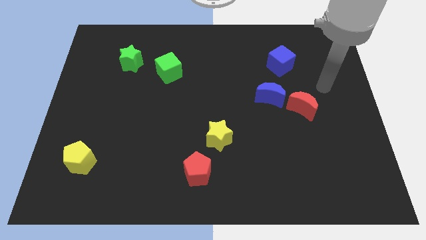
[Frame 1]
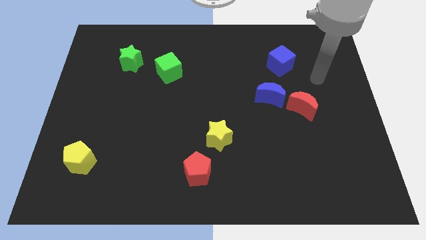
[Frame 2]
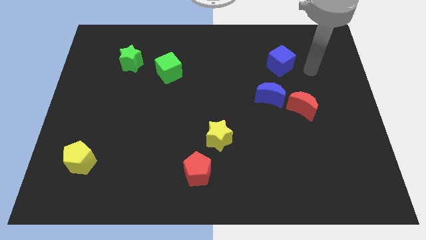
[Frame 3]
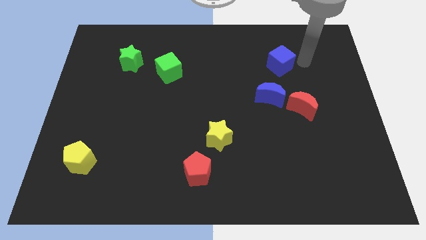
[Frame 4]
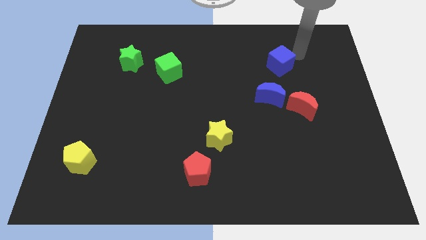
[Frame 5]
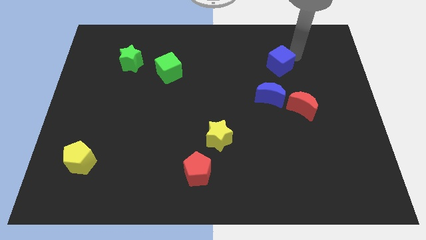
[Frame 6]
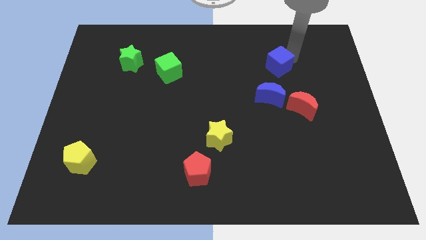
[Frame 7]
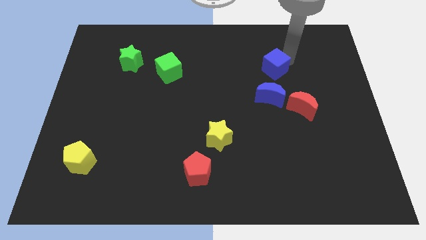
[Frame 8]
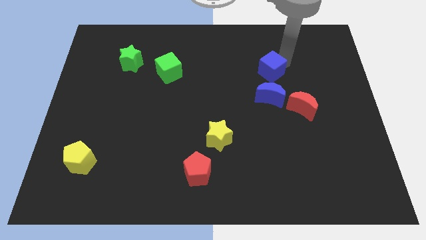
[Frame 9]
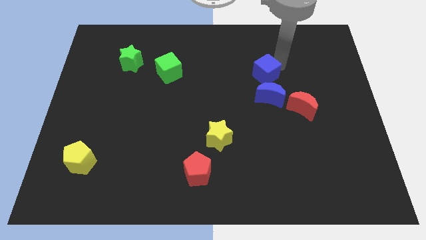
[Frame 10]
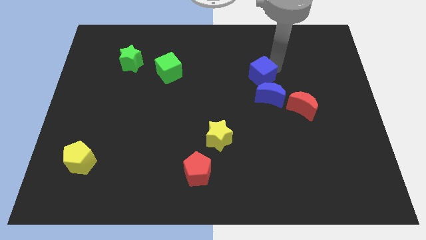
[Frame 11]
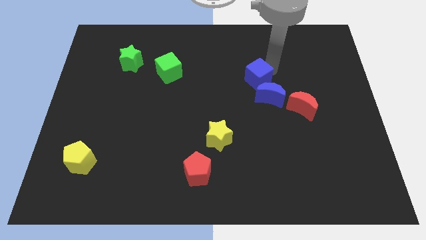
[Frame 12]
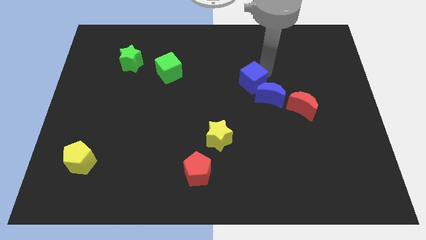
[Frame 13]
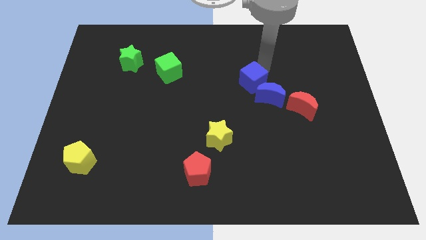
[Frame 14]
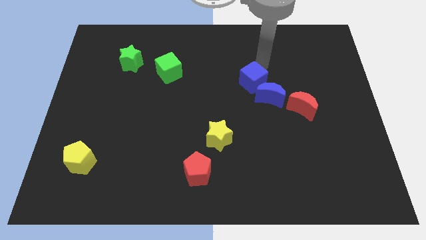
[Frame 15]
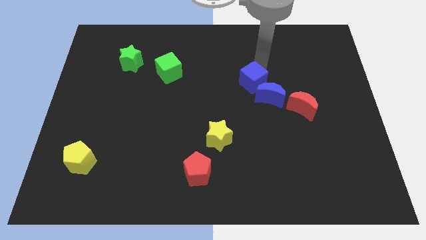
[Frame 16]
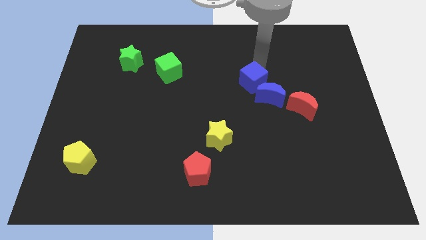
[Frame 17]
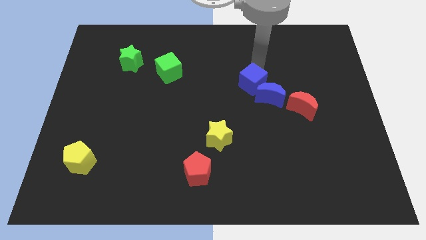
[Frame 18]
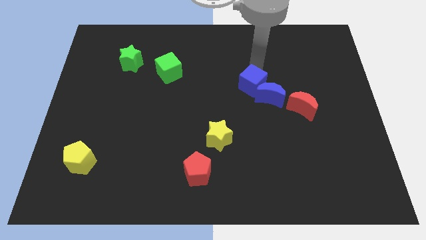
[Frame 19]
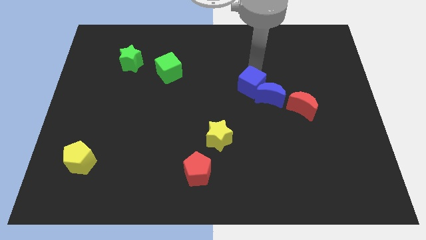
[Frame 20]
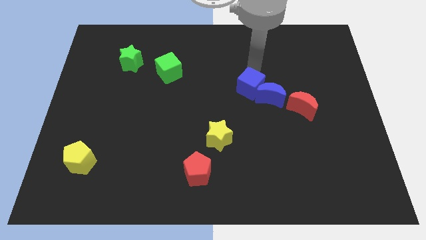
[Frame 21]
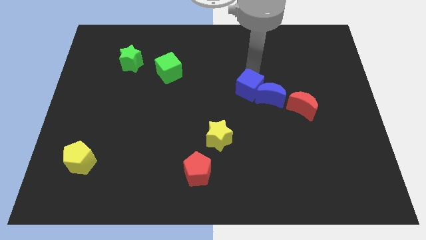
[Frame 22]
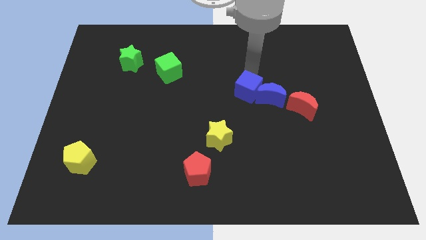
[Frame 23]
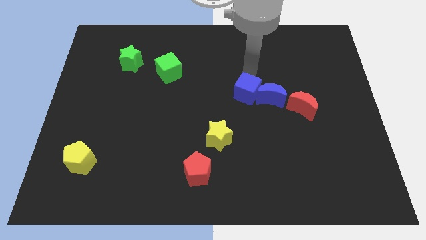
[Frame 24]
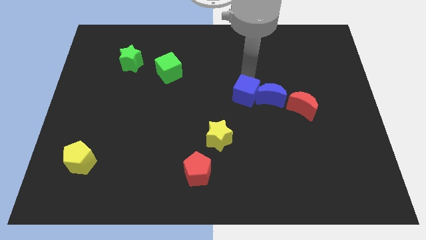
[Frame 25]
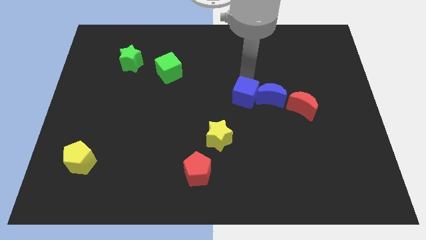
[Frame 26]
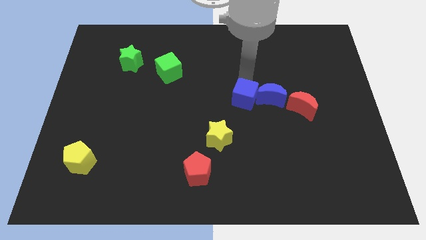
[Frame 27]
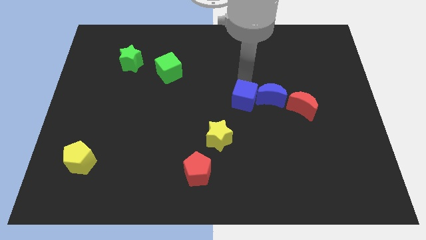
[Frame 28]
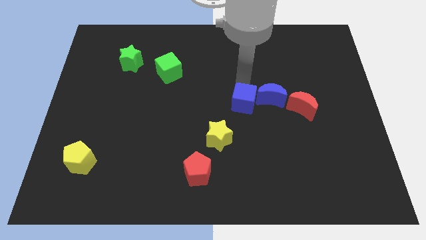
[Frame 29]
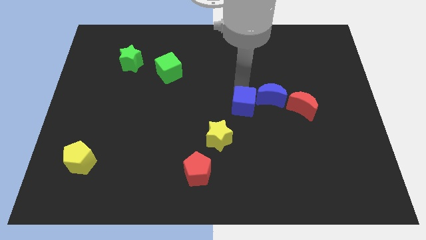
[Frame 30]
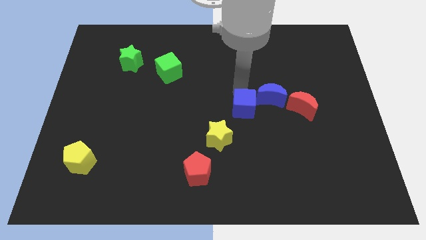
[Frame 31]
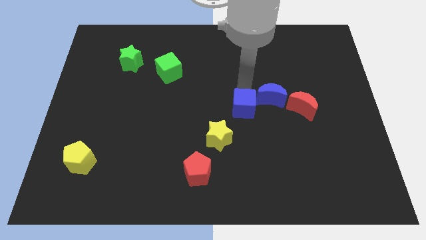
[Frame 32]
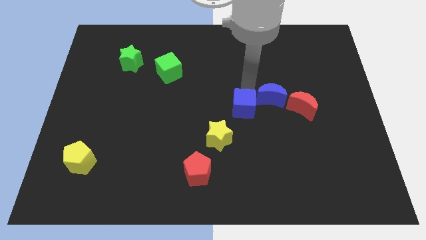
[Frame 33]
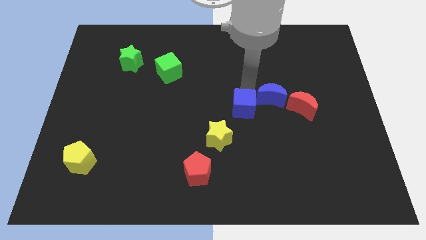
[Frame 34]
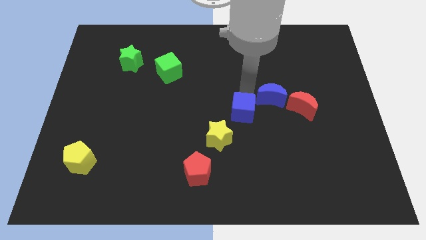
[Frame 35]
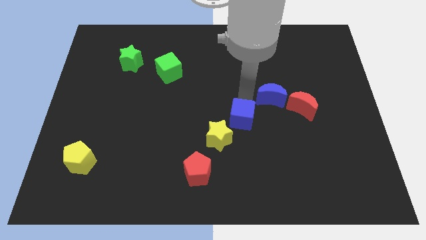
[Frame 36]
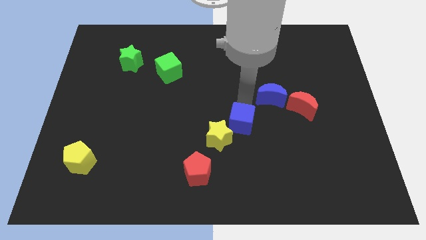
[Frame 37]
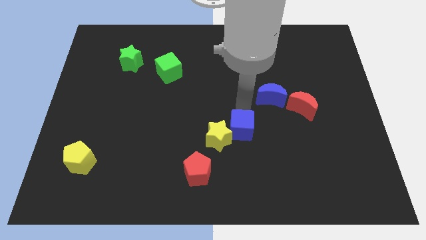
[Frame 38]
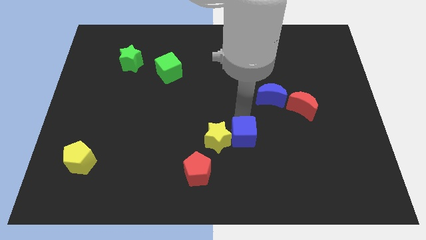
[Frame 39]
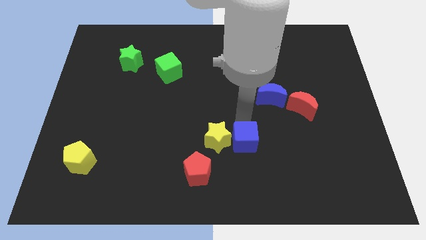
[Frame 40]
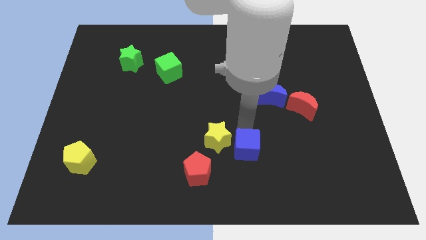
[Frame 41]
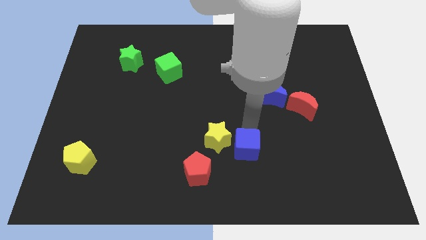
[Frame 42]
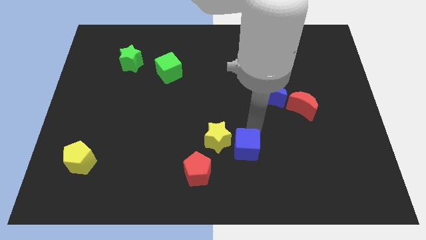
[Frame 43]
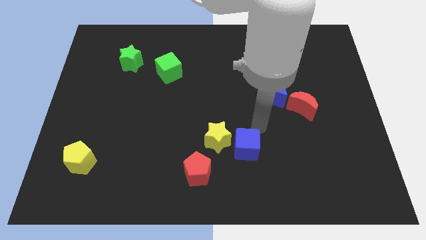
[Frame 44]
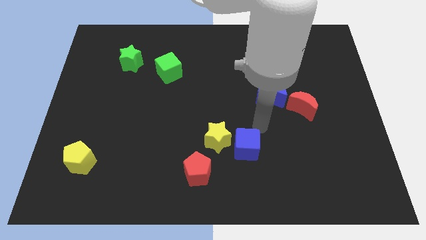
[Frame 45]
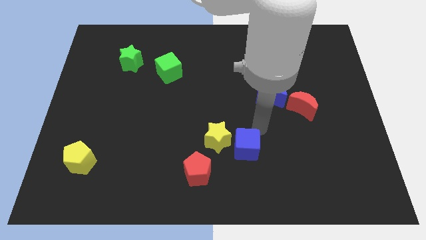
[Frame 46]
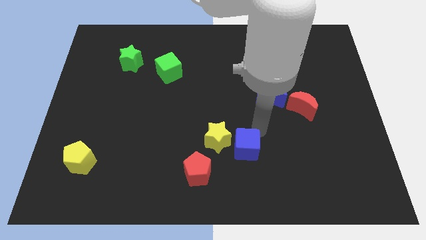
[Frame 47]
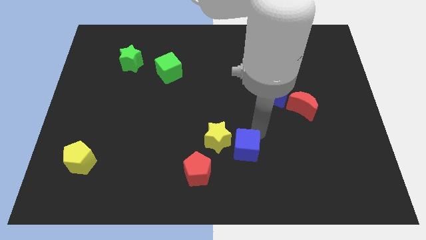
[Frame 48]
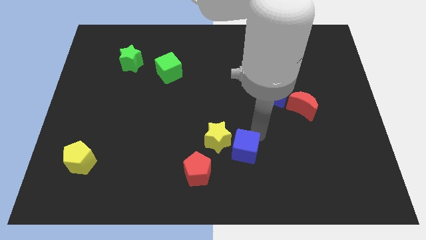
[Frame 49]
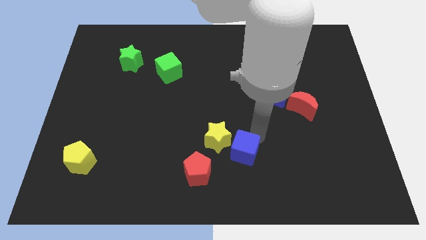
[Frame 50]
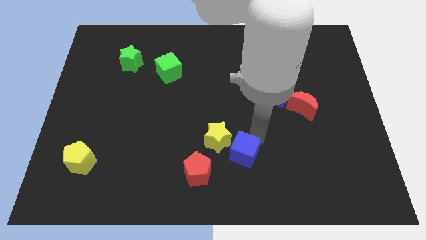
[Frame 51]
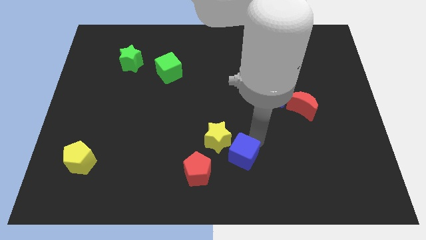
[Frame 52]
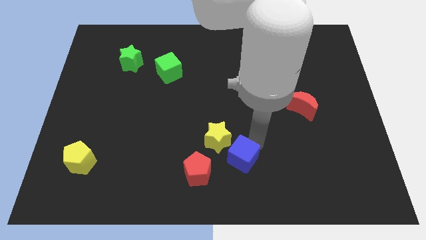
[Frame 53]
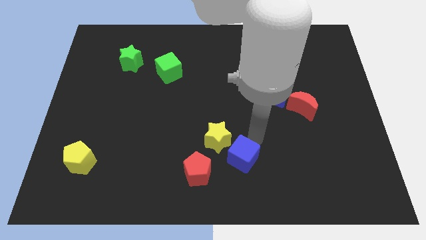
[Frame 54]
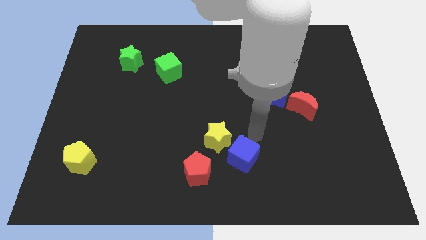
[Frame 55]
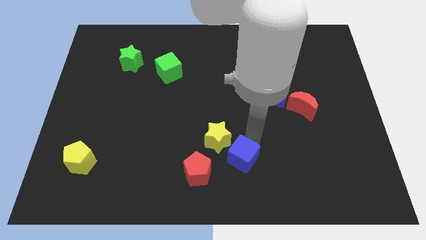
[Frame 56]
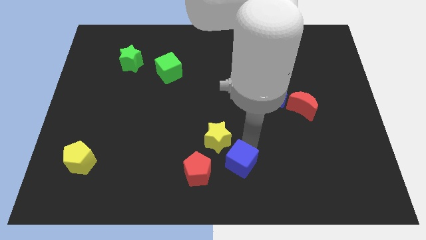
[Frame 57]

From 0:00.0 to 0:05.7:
slide the blue cube to the bottom

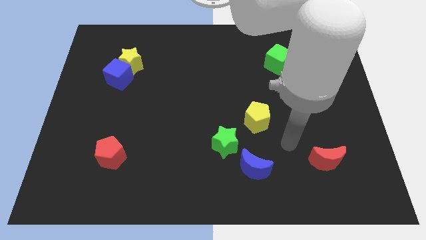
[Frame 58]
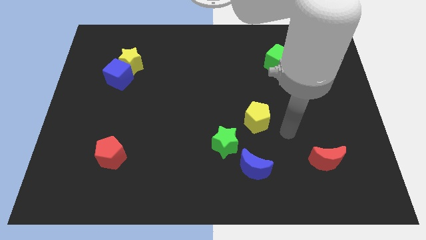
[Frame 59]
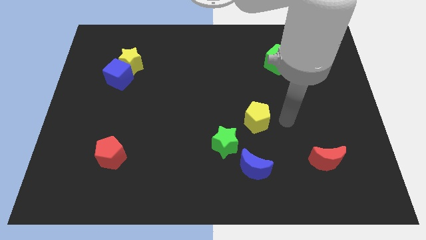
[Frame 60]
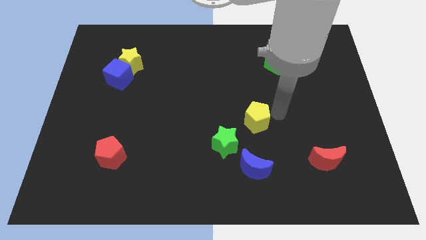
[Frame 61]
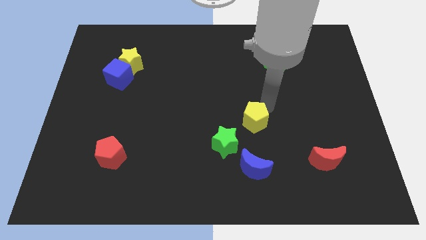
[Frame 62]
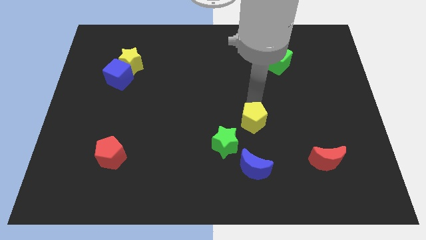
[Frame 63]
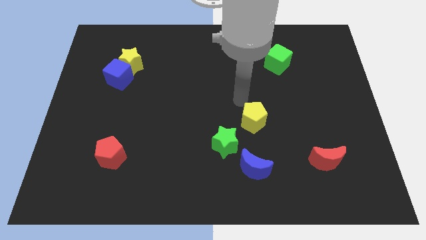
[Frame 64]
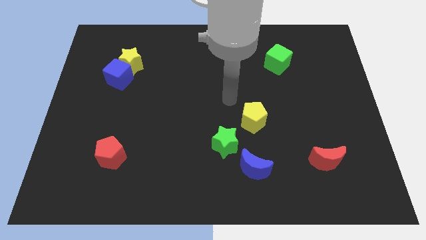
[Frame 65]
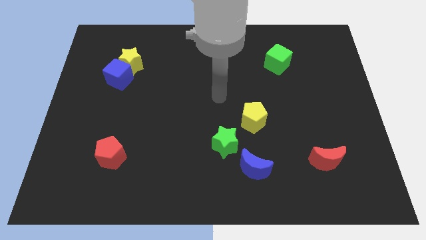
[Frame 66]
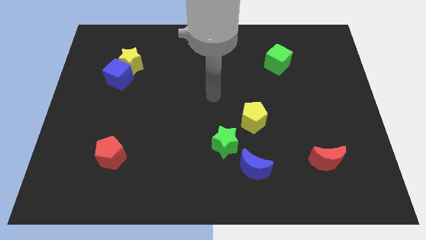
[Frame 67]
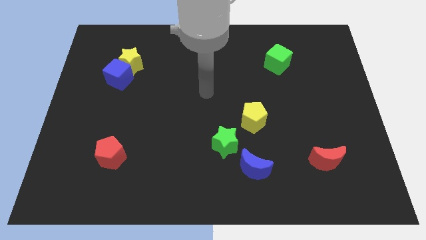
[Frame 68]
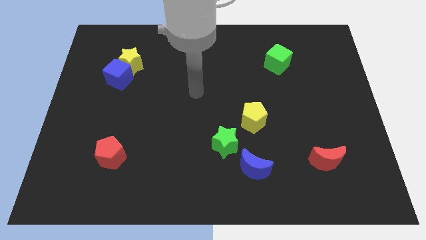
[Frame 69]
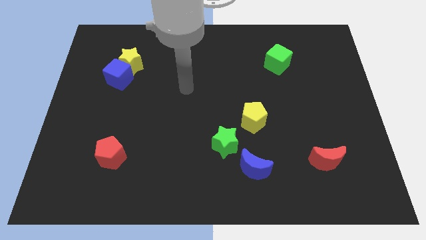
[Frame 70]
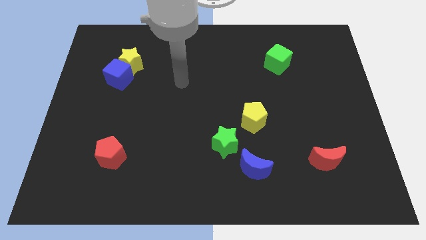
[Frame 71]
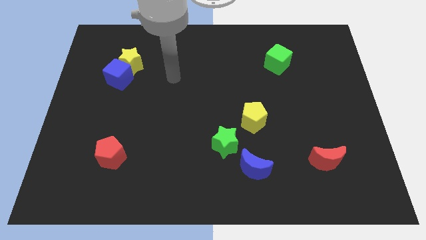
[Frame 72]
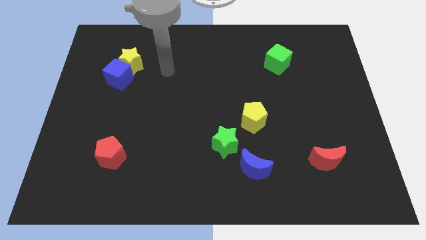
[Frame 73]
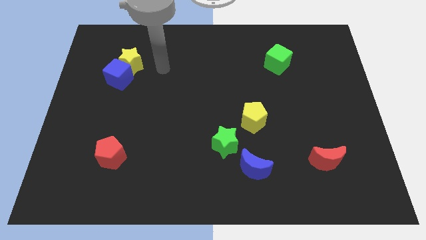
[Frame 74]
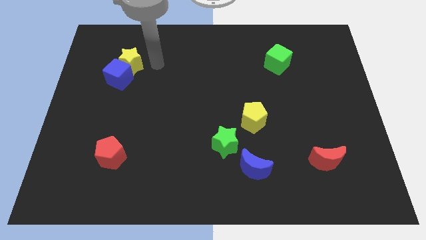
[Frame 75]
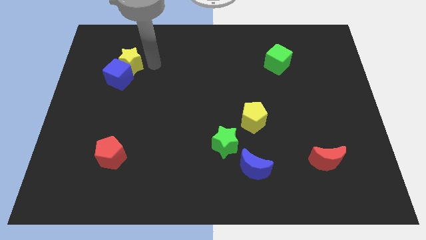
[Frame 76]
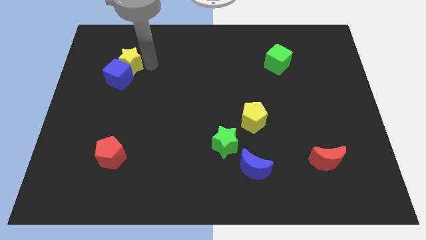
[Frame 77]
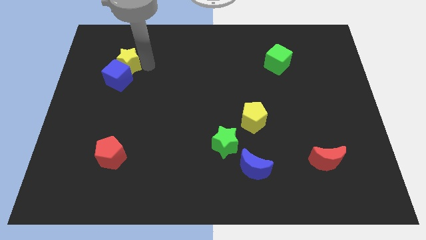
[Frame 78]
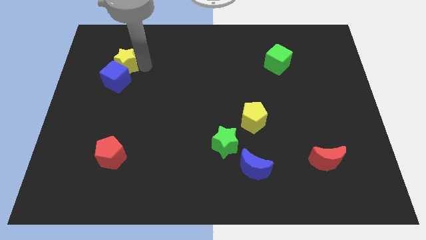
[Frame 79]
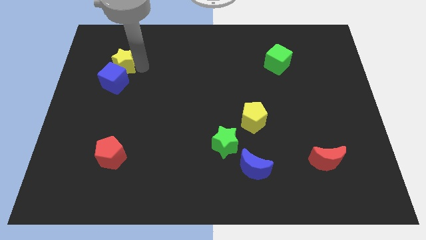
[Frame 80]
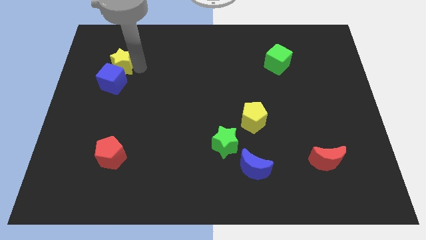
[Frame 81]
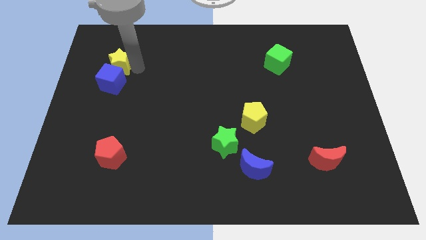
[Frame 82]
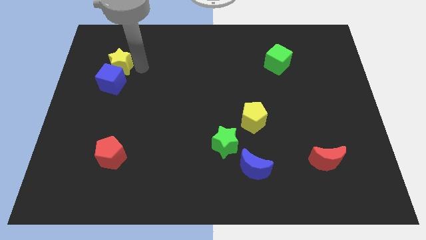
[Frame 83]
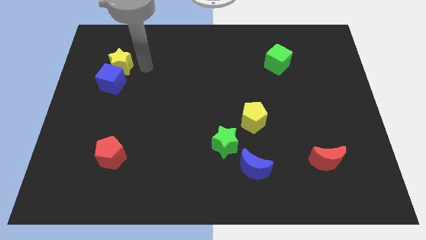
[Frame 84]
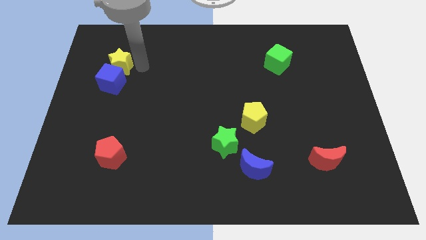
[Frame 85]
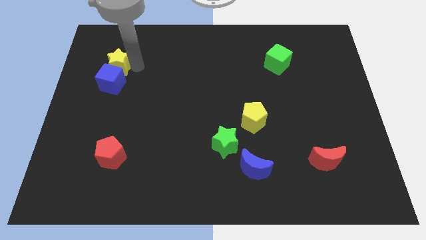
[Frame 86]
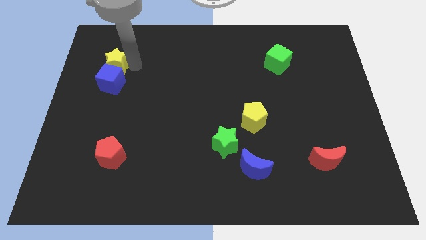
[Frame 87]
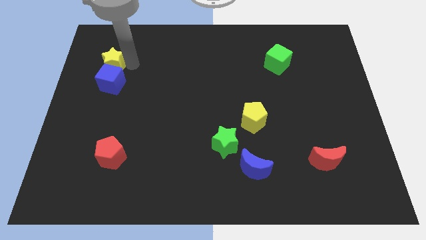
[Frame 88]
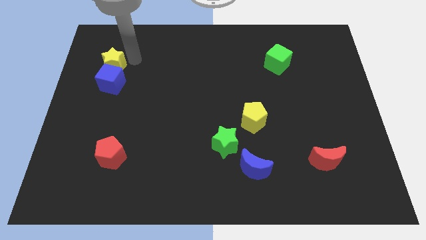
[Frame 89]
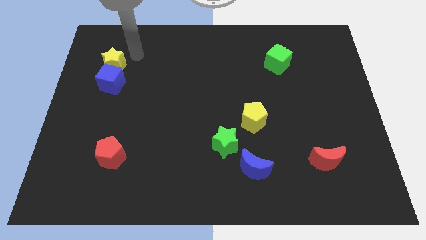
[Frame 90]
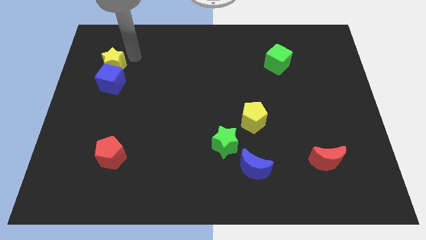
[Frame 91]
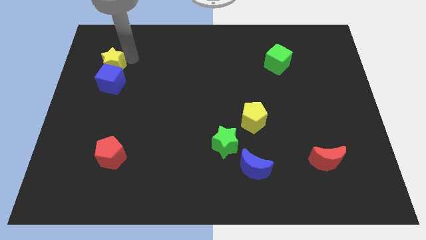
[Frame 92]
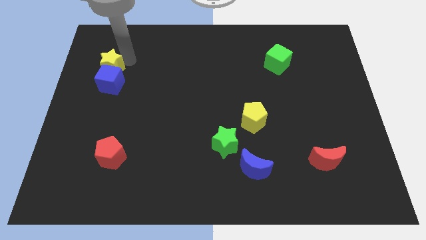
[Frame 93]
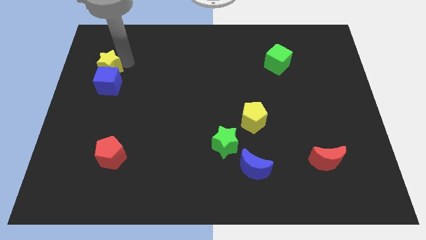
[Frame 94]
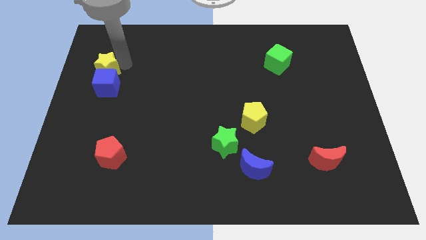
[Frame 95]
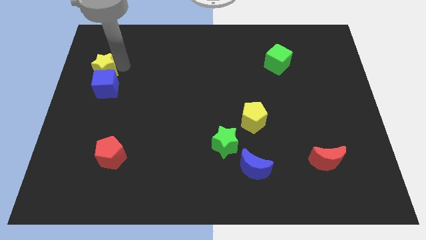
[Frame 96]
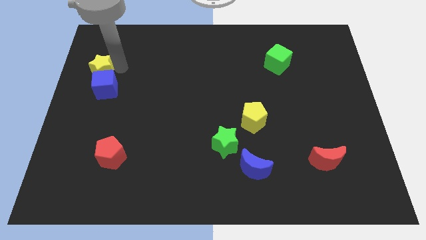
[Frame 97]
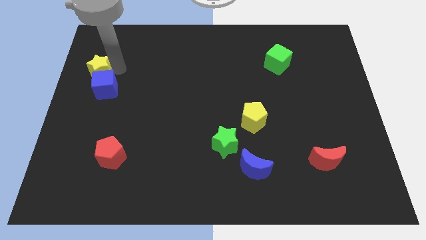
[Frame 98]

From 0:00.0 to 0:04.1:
put the yellow star to the left side
